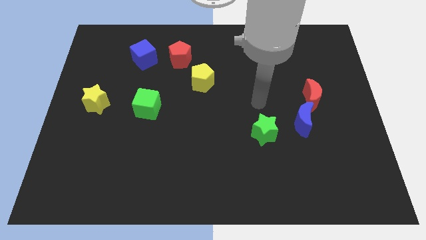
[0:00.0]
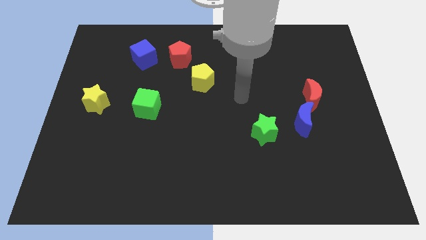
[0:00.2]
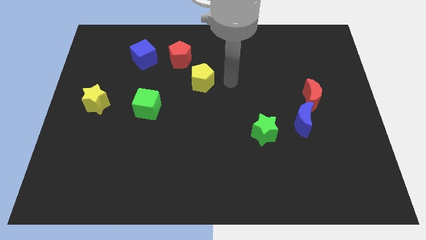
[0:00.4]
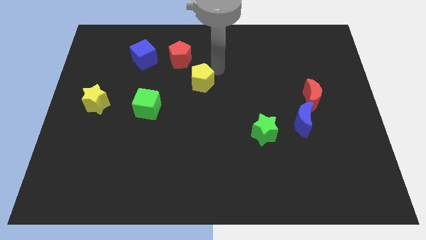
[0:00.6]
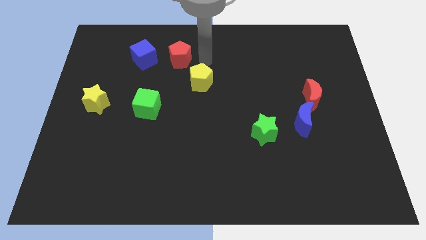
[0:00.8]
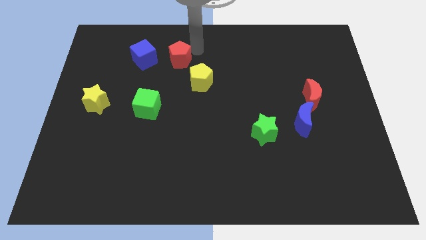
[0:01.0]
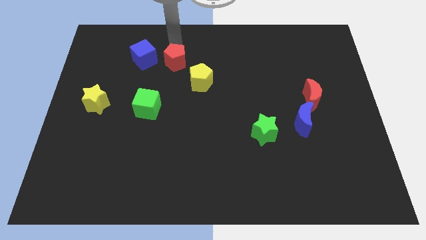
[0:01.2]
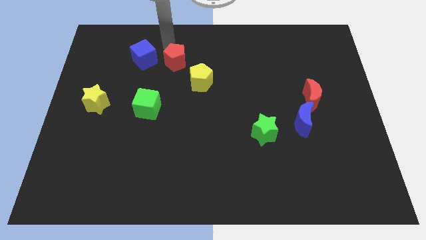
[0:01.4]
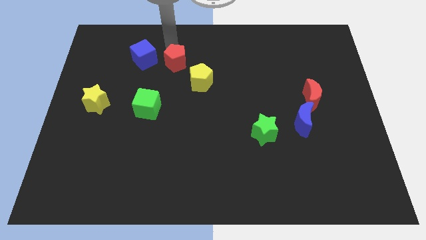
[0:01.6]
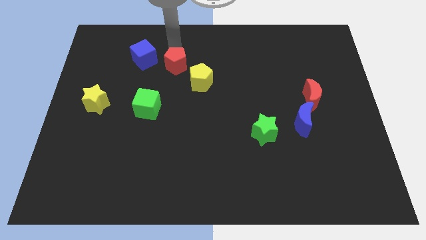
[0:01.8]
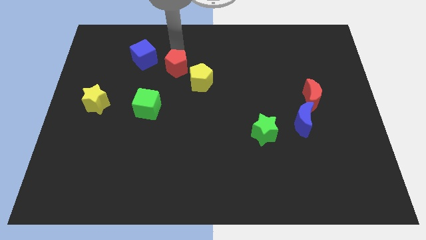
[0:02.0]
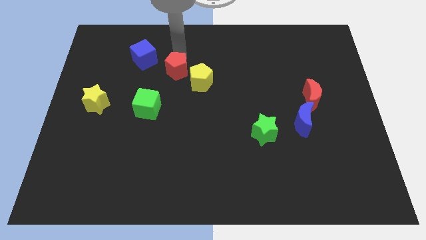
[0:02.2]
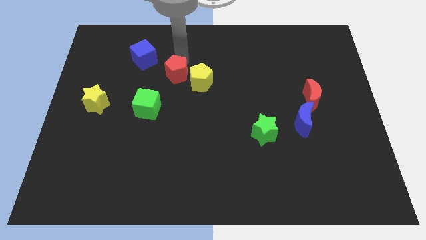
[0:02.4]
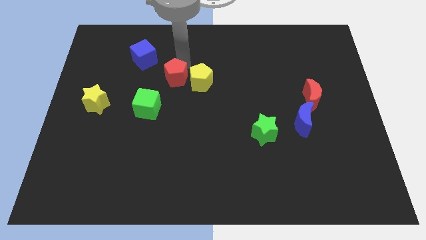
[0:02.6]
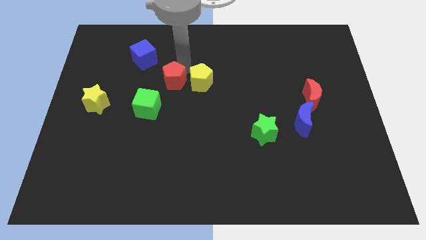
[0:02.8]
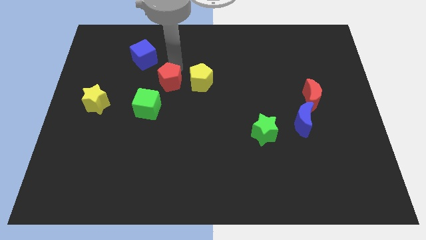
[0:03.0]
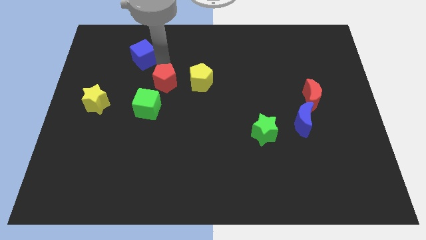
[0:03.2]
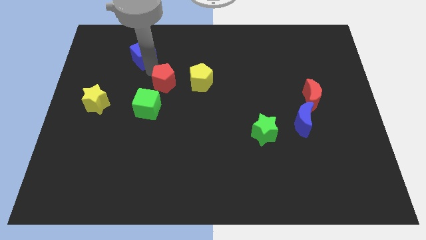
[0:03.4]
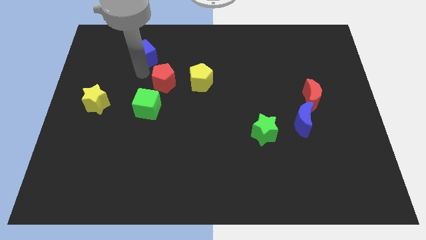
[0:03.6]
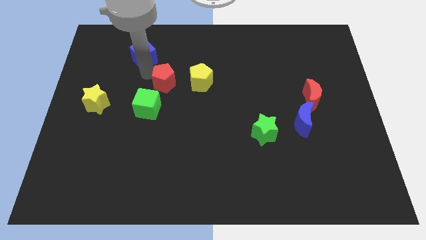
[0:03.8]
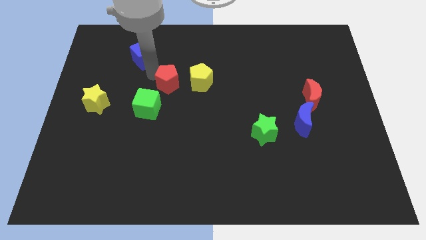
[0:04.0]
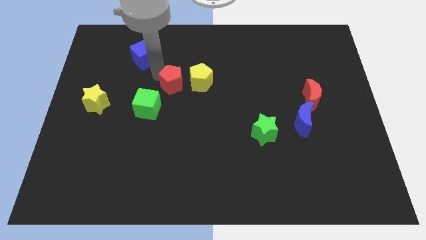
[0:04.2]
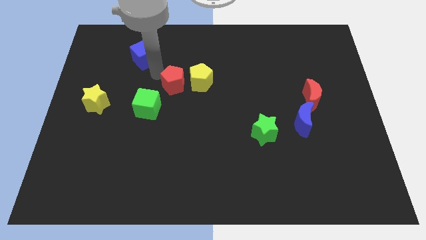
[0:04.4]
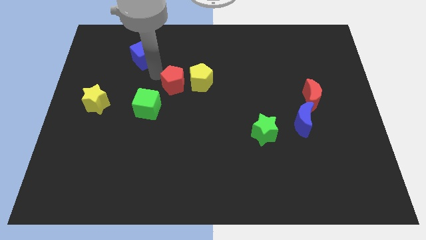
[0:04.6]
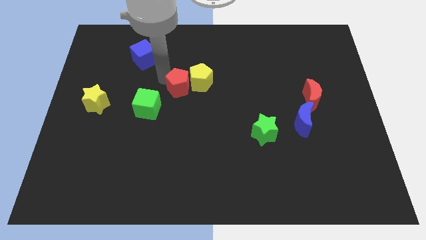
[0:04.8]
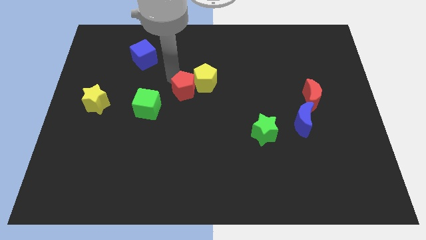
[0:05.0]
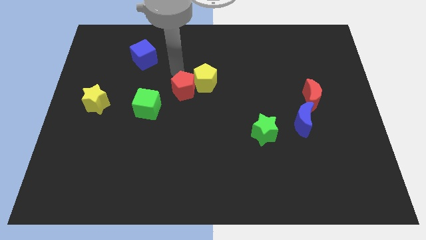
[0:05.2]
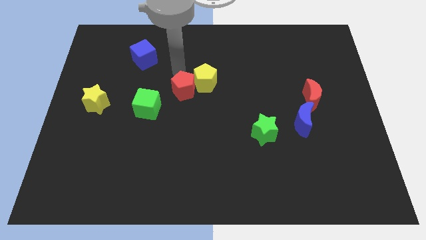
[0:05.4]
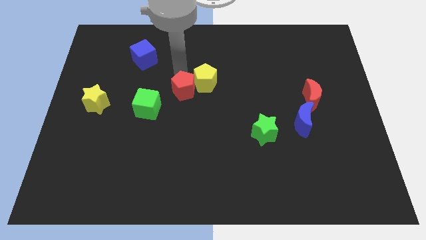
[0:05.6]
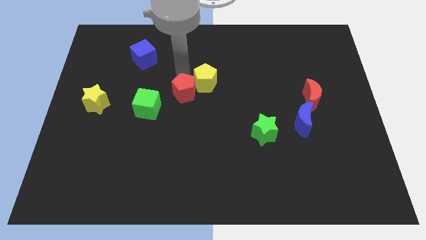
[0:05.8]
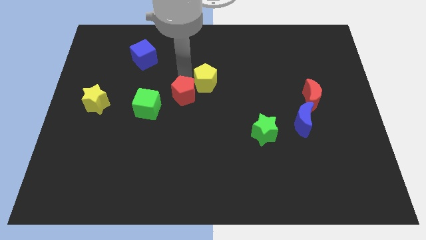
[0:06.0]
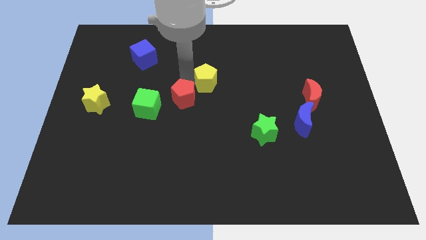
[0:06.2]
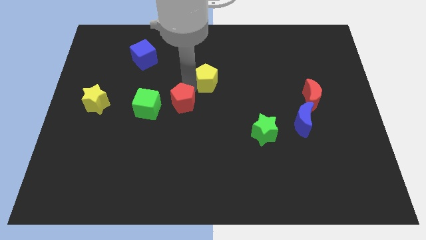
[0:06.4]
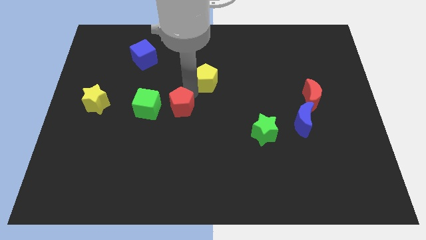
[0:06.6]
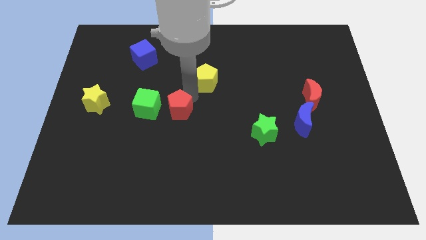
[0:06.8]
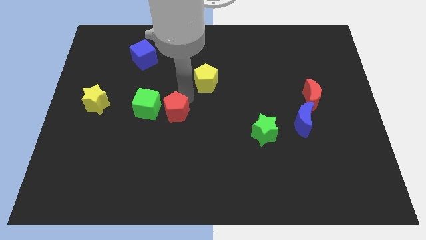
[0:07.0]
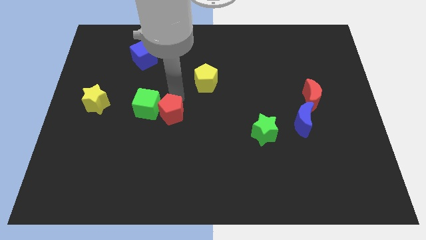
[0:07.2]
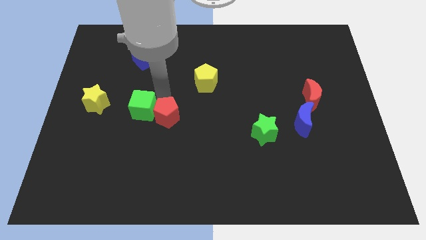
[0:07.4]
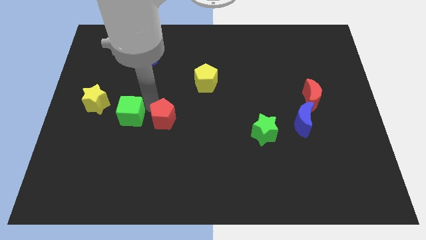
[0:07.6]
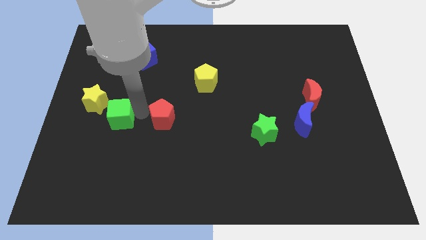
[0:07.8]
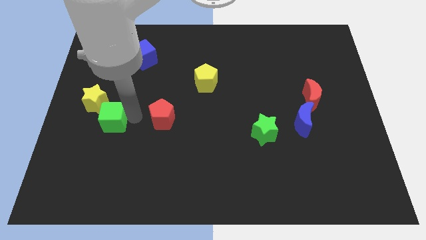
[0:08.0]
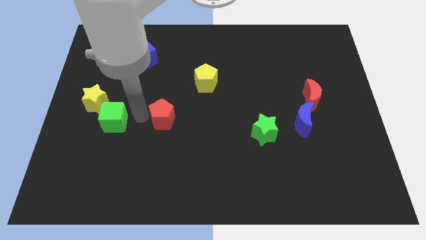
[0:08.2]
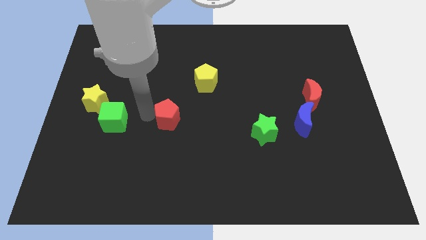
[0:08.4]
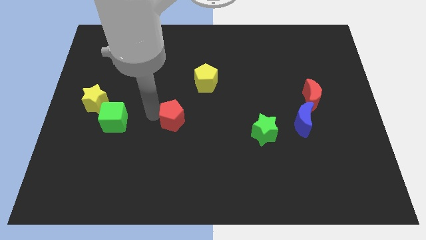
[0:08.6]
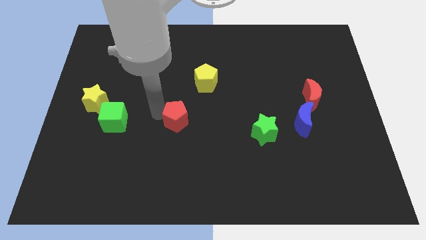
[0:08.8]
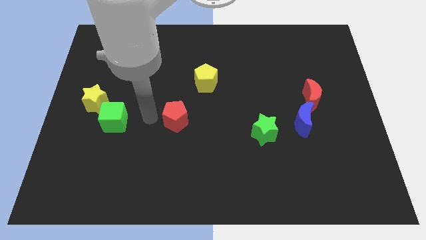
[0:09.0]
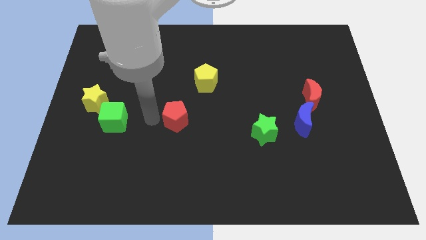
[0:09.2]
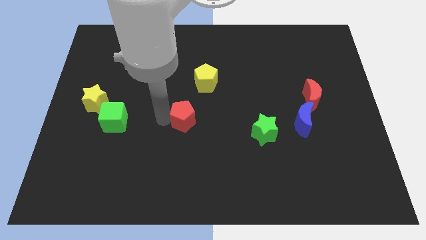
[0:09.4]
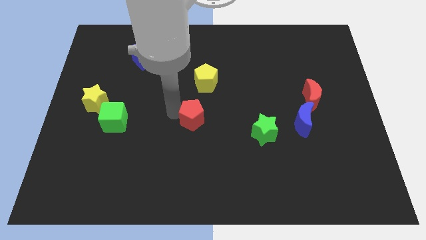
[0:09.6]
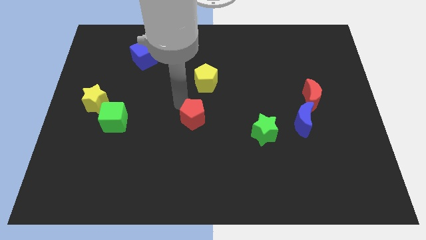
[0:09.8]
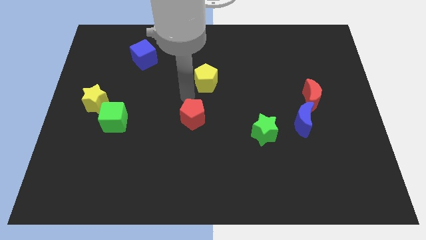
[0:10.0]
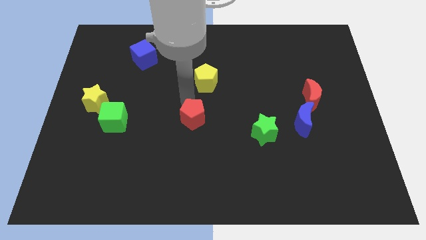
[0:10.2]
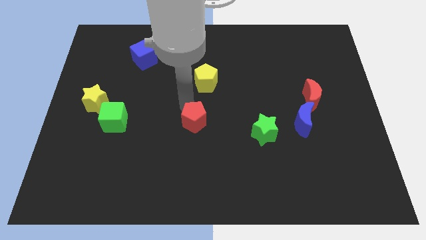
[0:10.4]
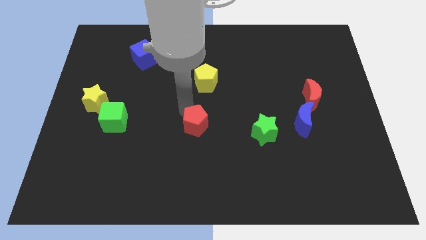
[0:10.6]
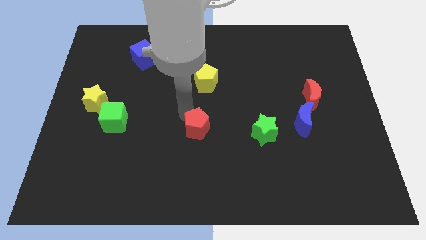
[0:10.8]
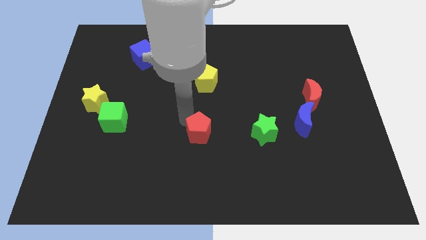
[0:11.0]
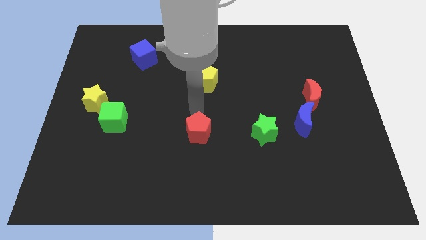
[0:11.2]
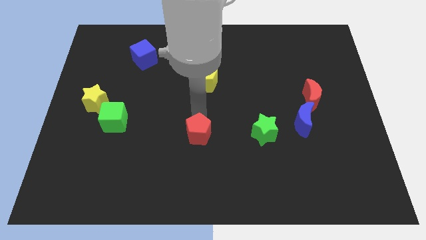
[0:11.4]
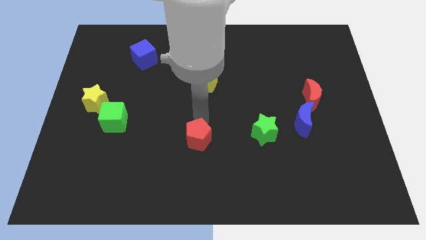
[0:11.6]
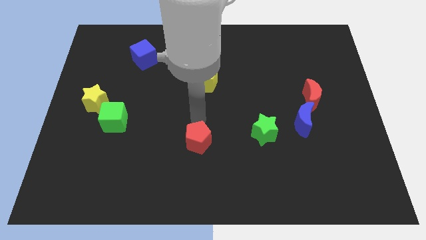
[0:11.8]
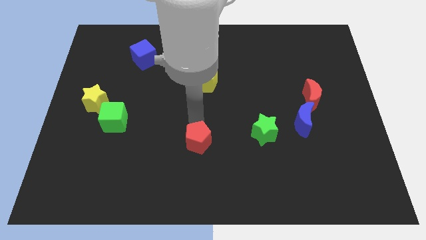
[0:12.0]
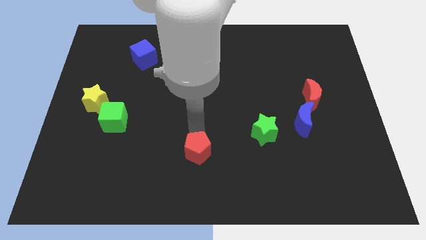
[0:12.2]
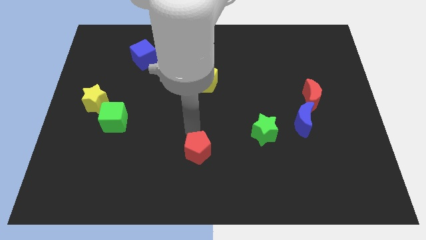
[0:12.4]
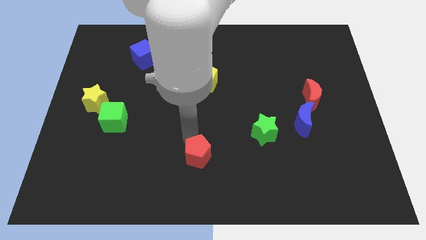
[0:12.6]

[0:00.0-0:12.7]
slide the red pentagon to the bottom
